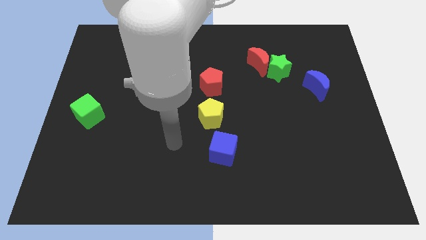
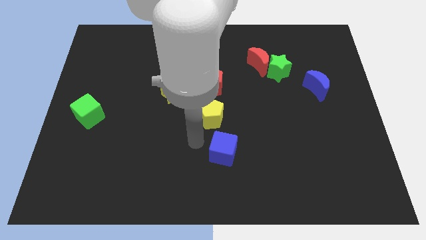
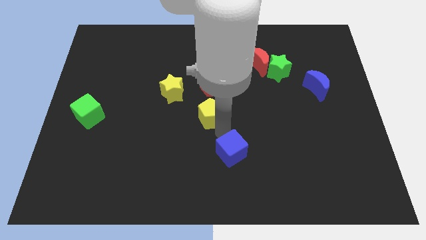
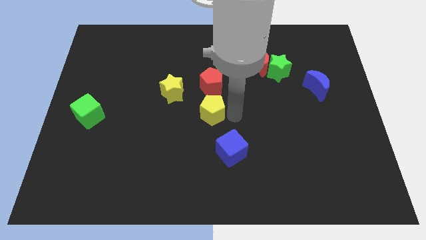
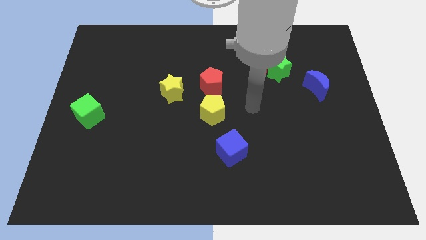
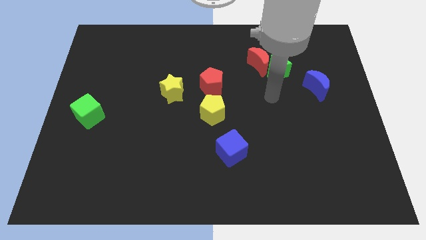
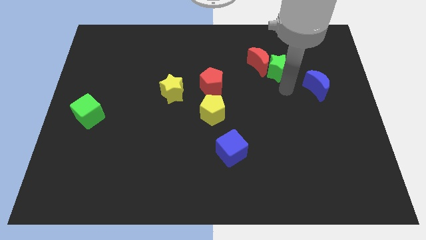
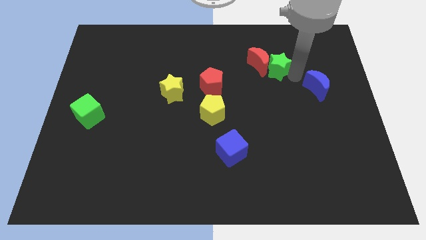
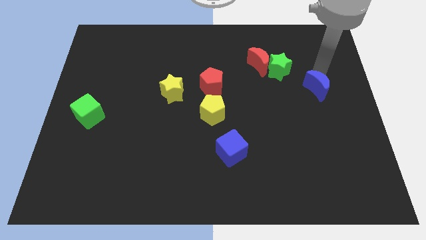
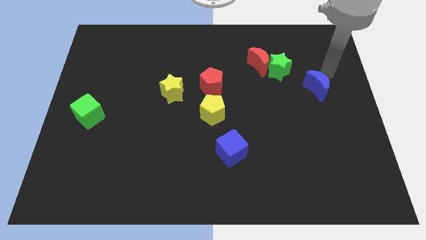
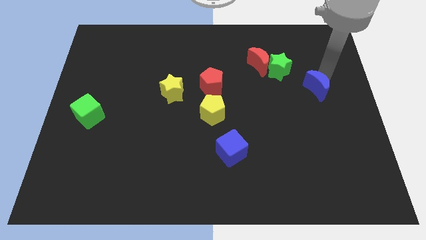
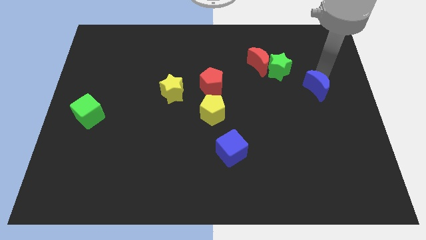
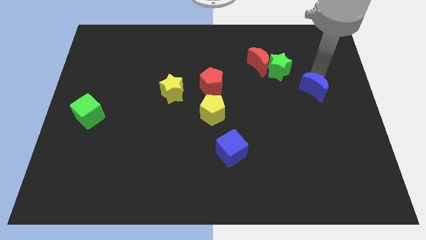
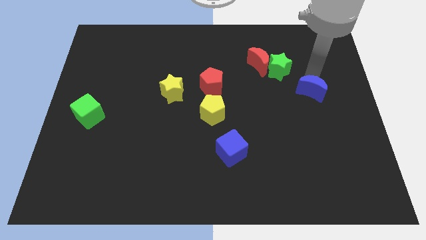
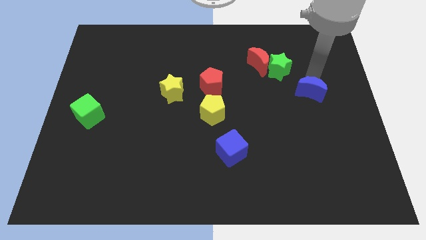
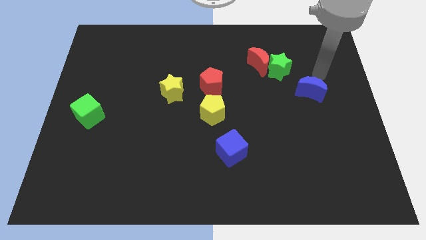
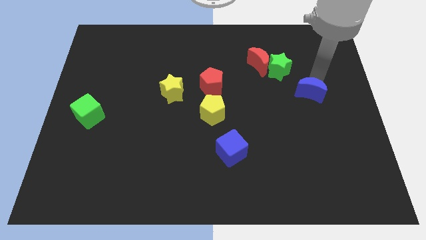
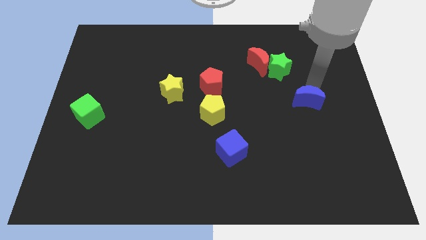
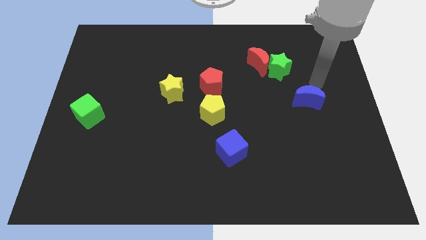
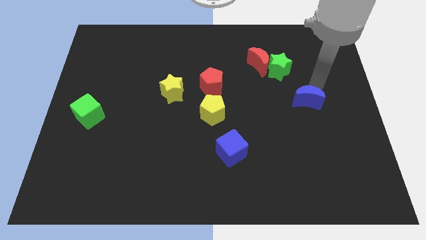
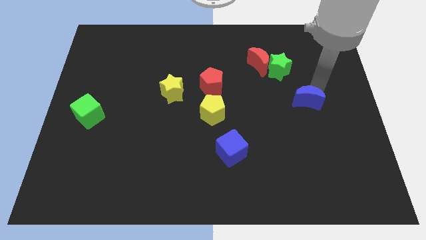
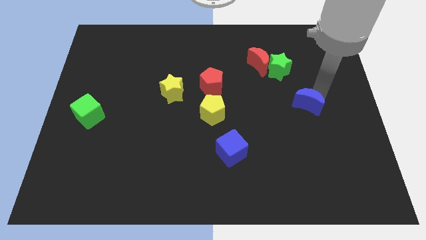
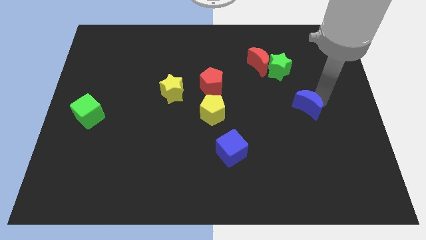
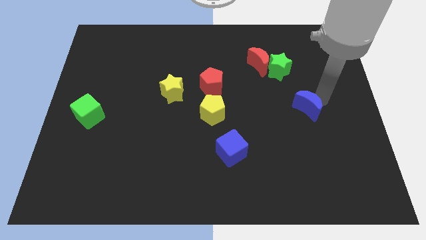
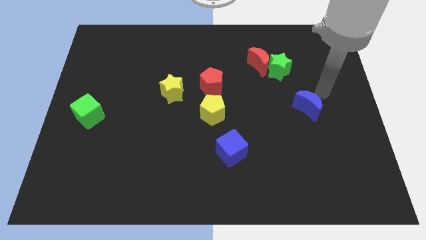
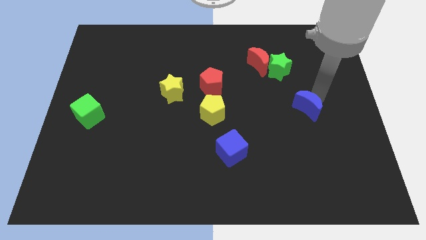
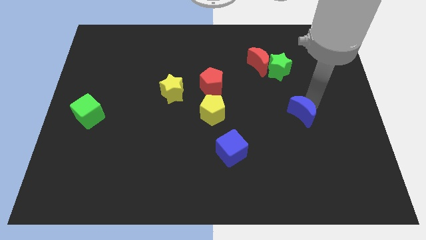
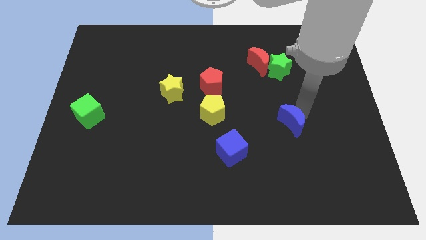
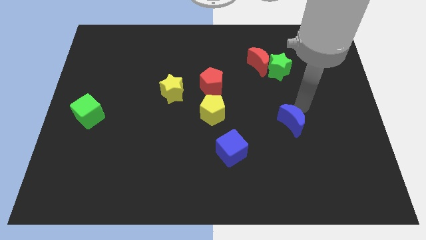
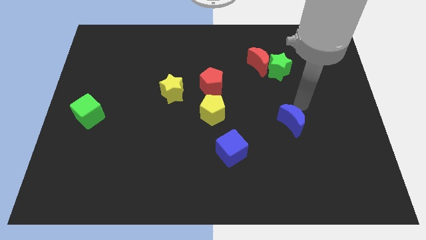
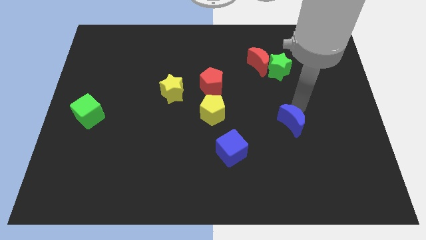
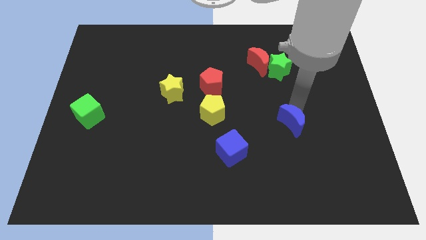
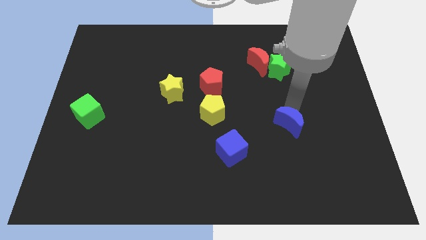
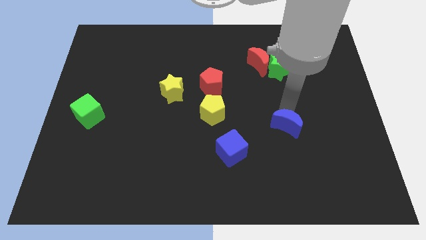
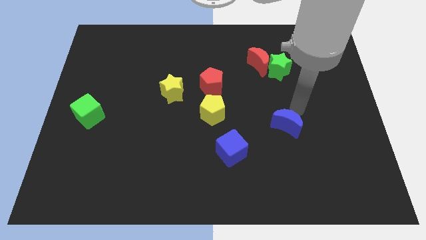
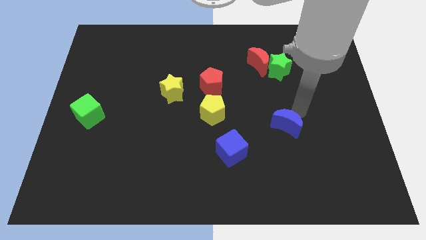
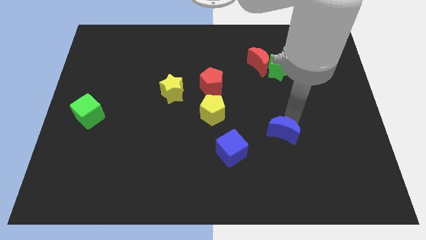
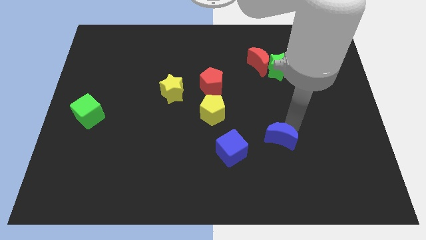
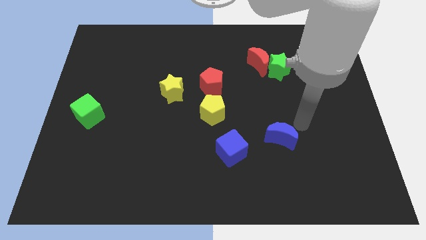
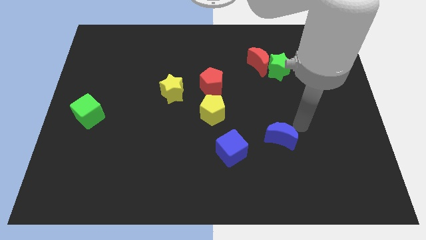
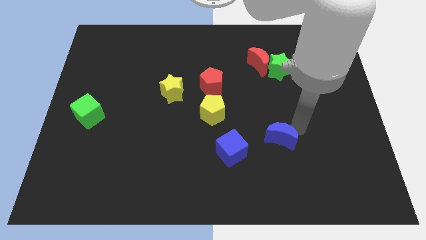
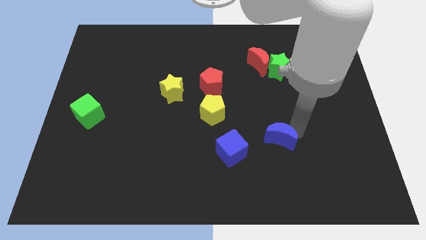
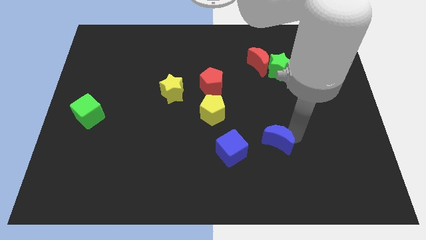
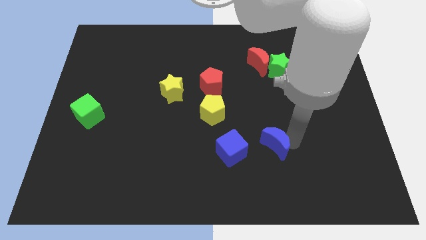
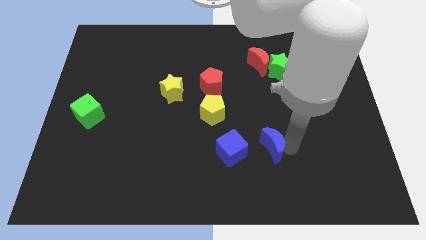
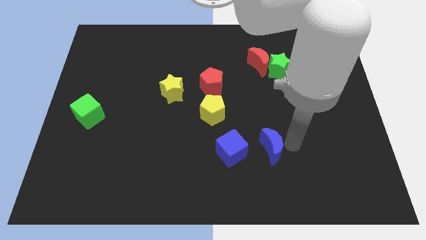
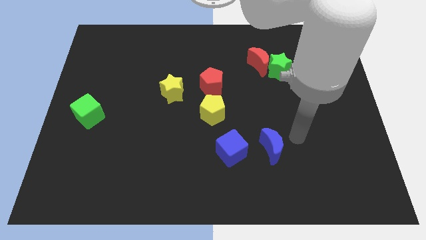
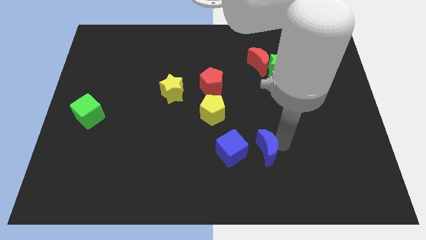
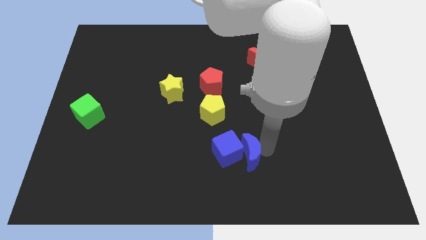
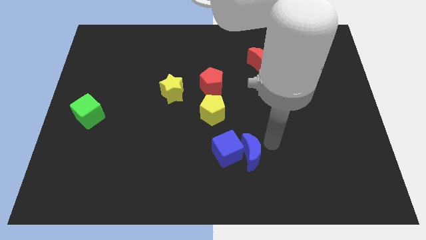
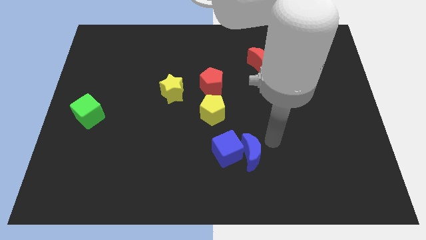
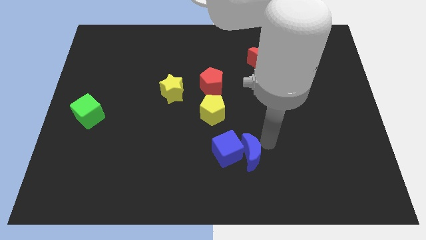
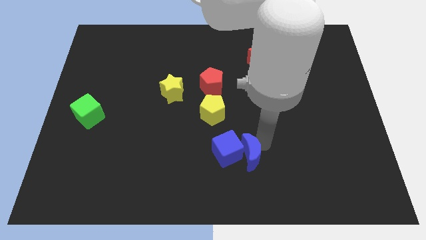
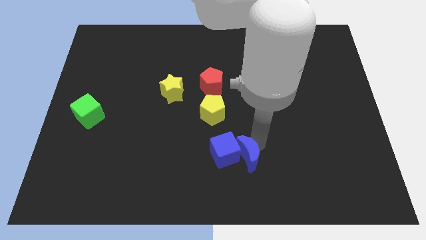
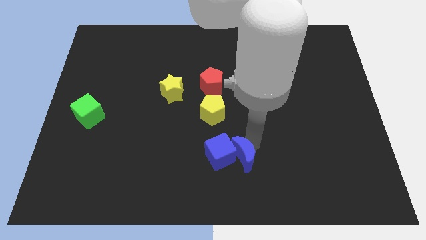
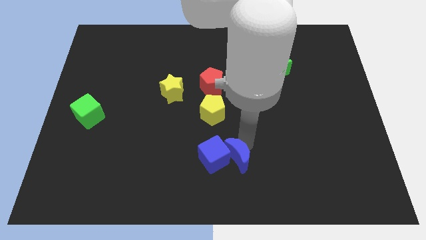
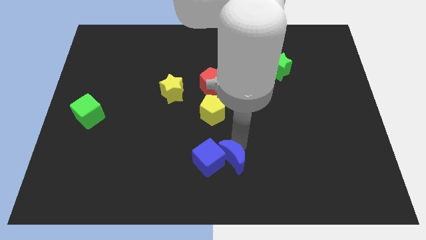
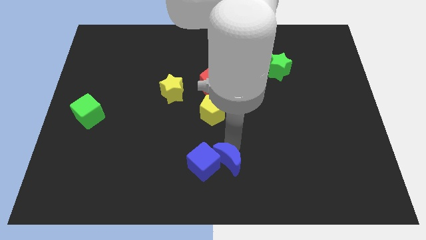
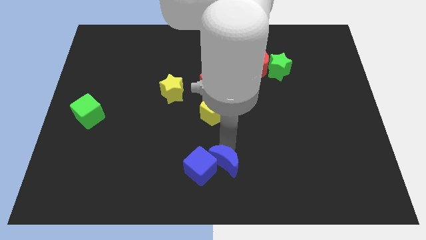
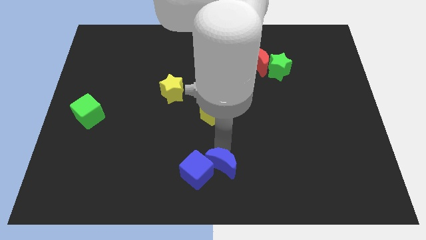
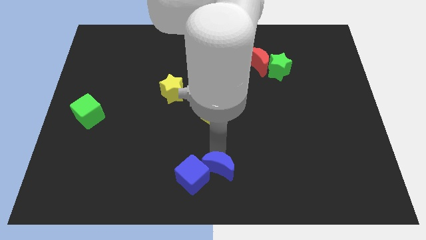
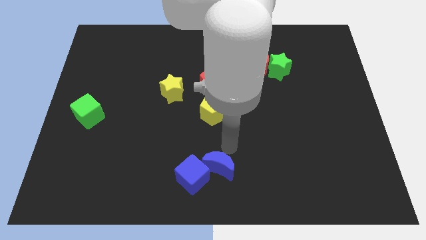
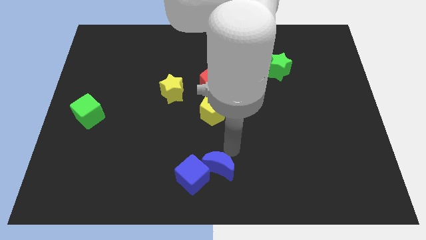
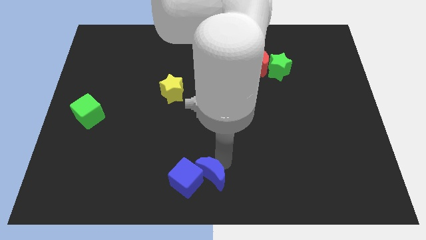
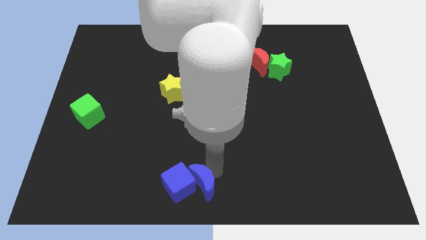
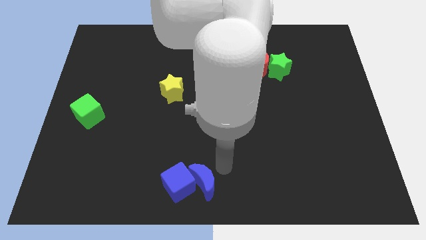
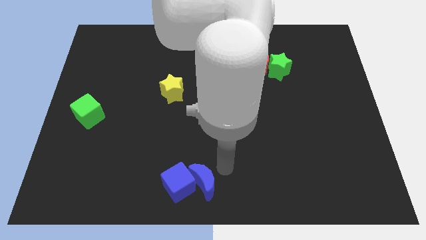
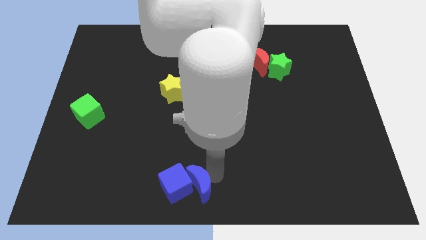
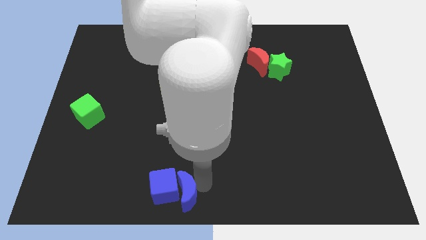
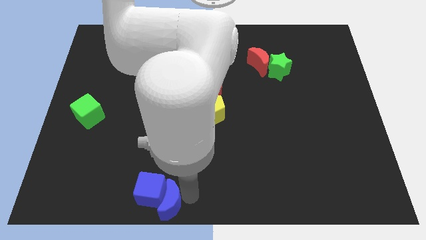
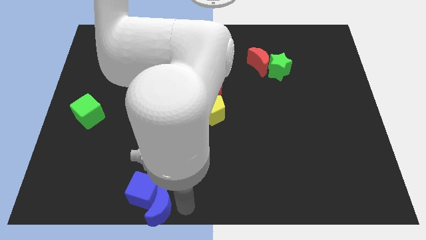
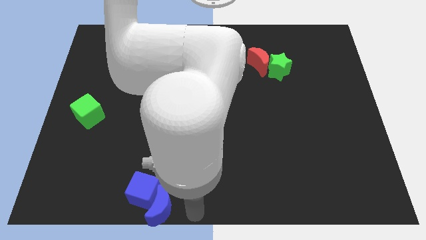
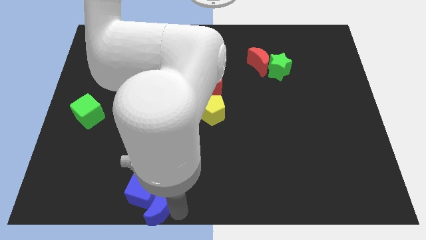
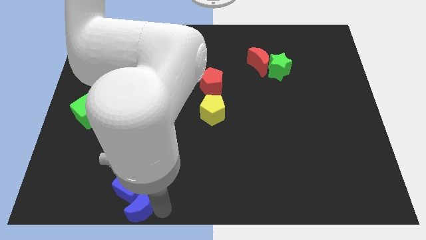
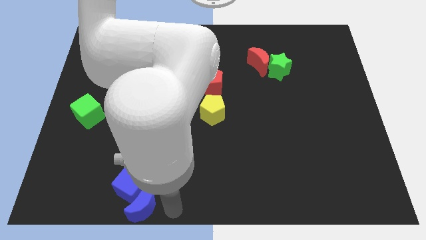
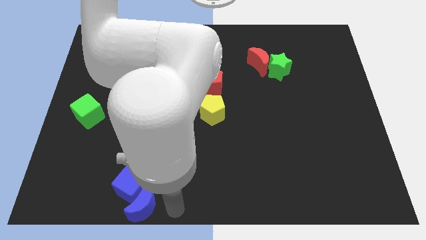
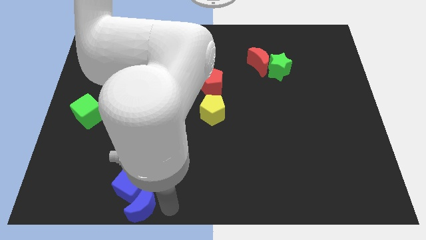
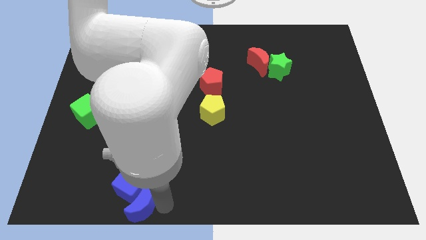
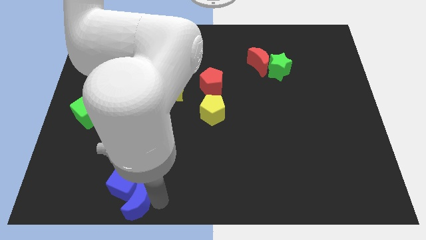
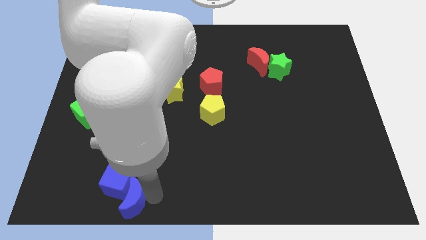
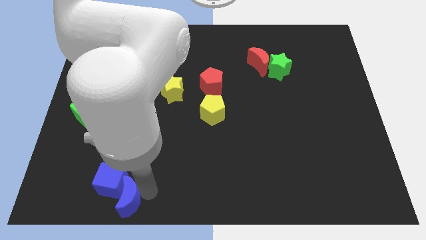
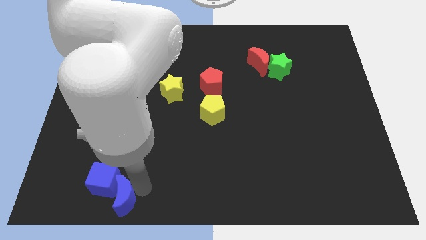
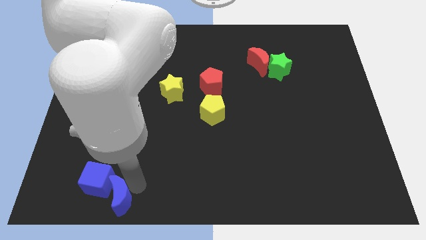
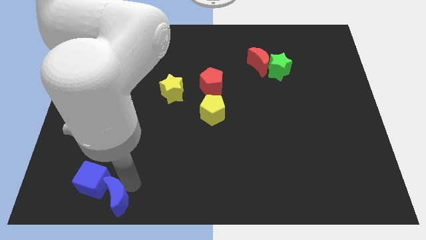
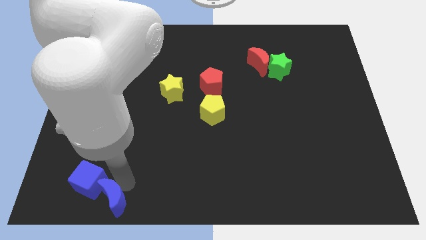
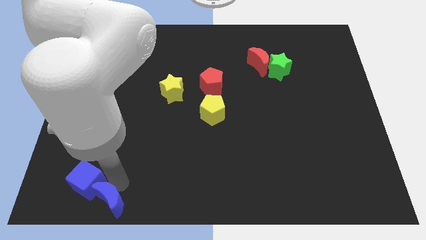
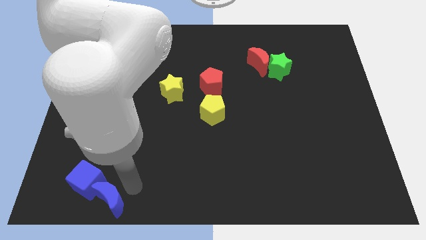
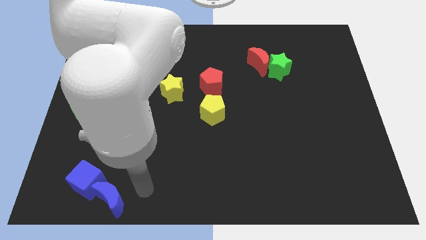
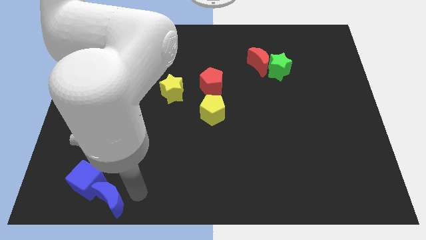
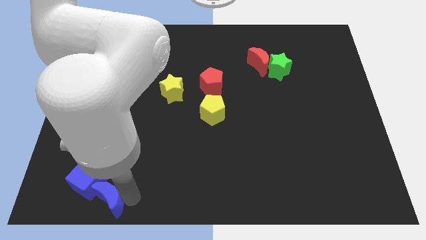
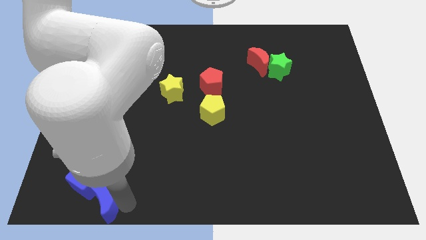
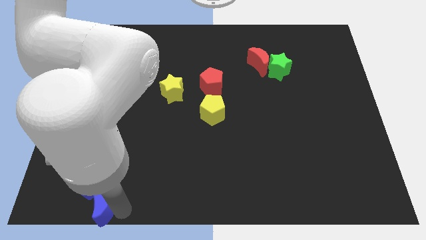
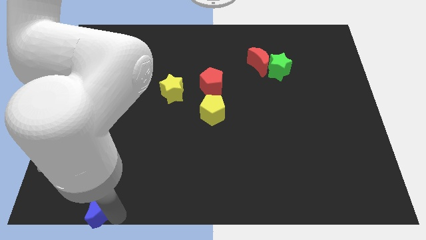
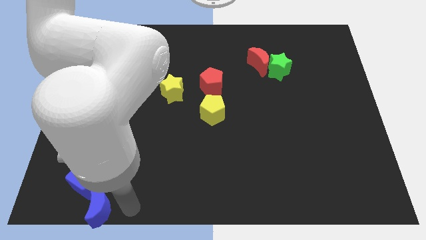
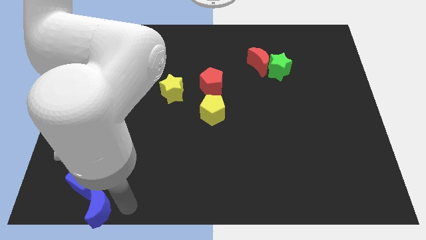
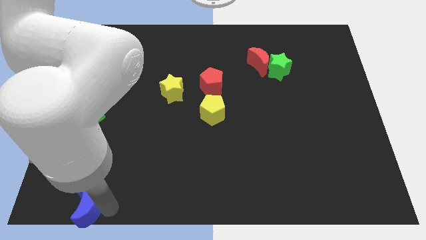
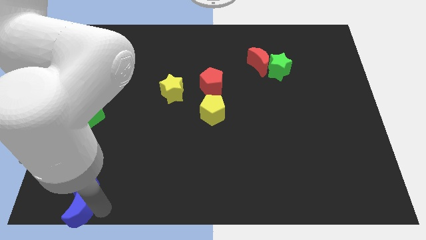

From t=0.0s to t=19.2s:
put the blue moon to the bottom left corner
